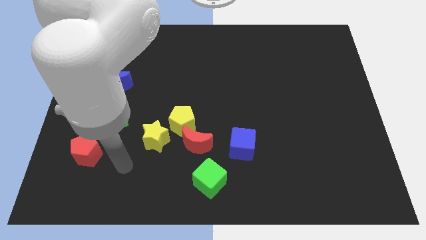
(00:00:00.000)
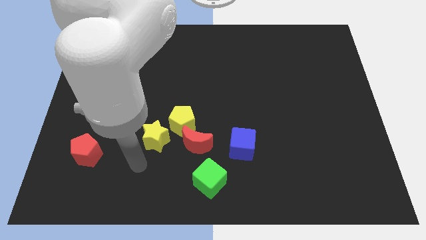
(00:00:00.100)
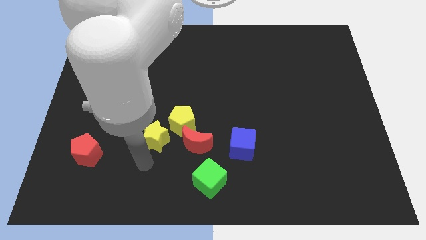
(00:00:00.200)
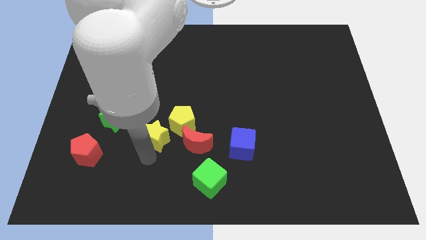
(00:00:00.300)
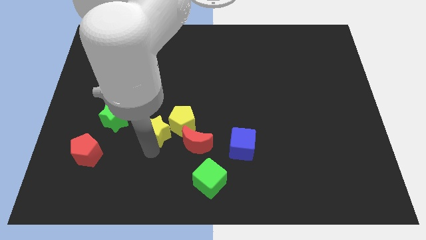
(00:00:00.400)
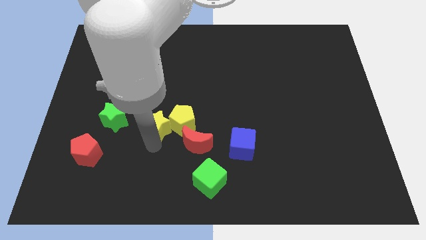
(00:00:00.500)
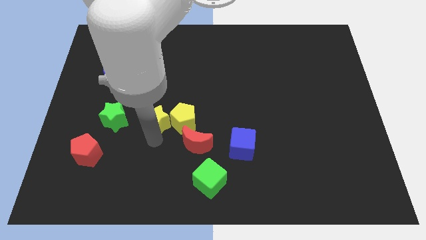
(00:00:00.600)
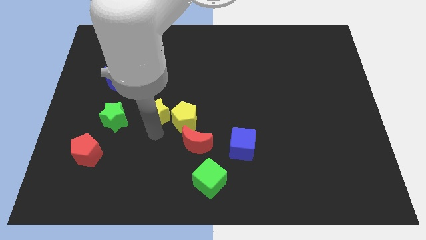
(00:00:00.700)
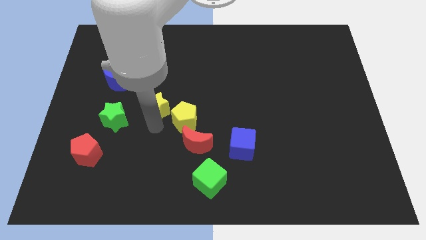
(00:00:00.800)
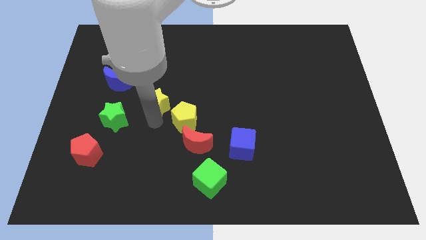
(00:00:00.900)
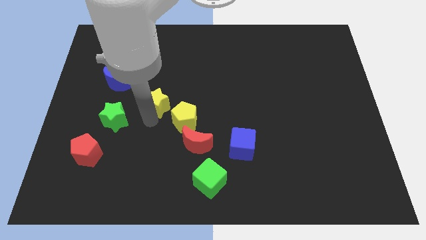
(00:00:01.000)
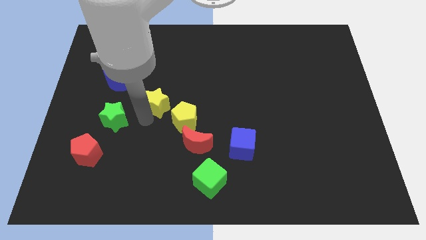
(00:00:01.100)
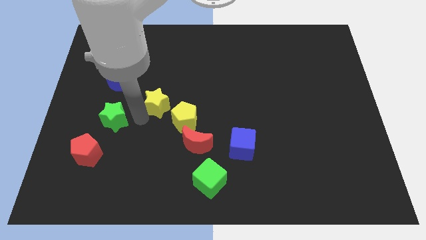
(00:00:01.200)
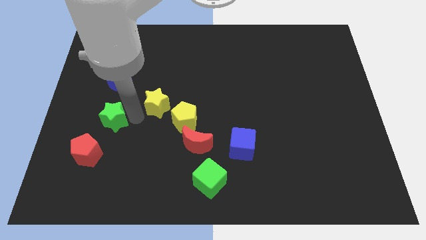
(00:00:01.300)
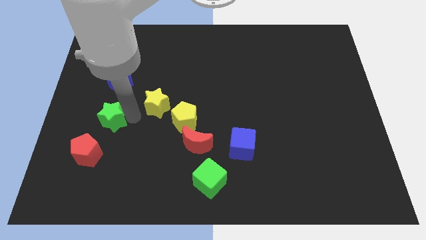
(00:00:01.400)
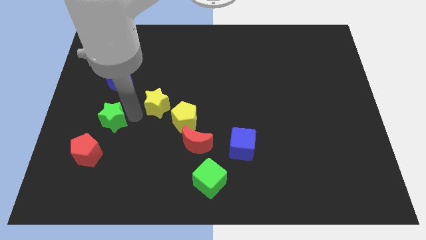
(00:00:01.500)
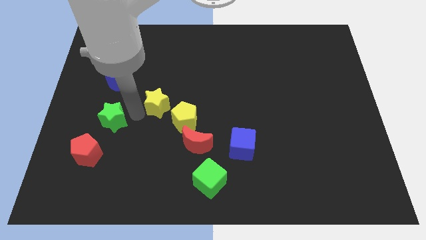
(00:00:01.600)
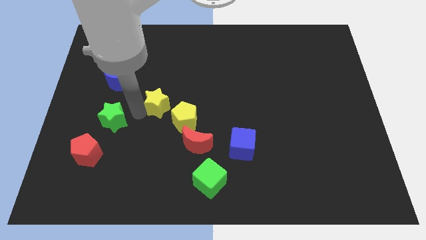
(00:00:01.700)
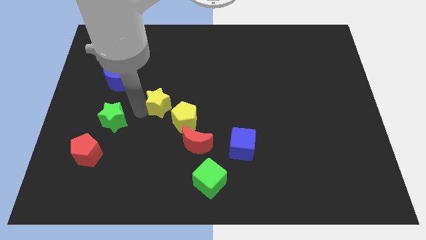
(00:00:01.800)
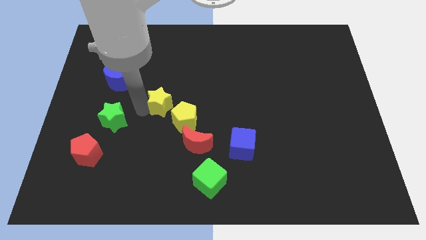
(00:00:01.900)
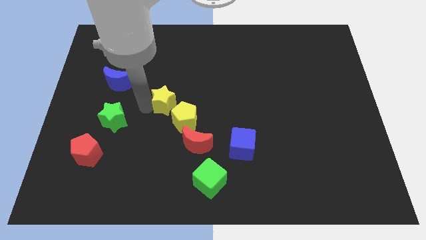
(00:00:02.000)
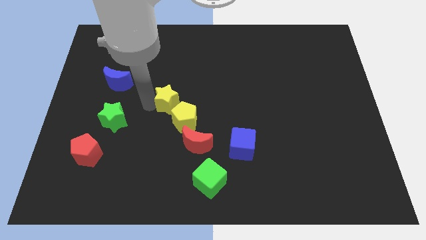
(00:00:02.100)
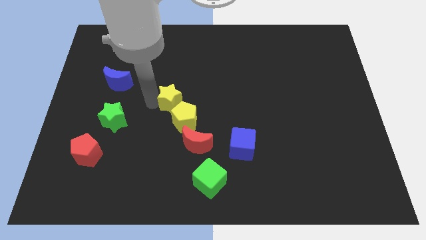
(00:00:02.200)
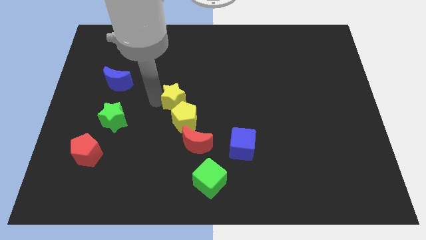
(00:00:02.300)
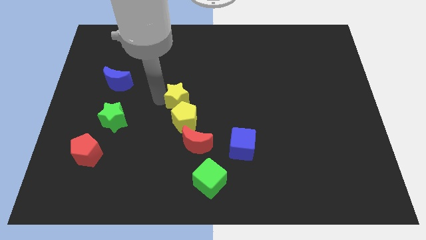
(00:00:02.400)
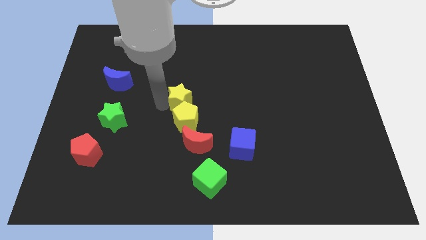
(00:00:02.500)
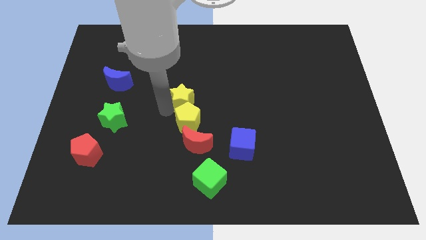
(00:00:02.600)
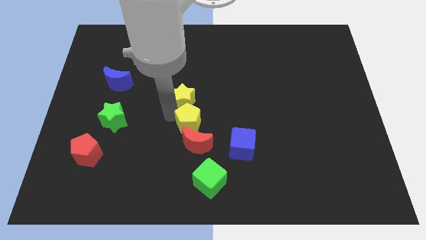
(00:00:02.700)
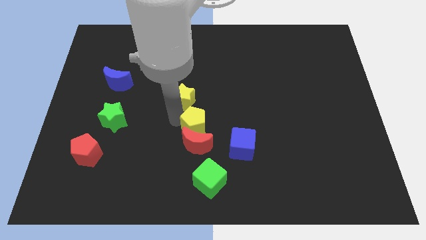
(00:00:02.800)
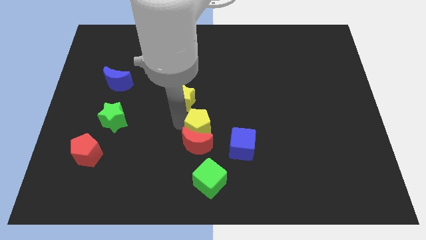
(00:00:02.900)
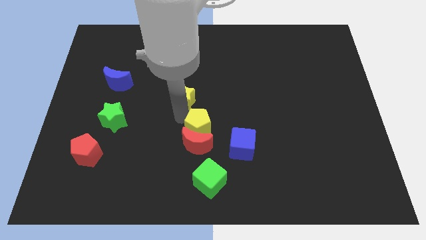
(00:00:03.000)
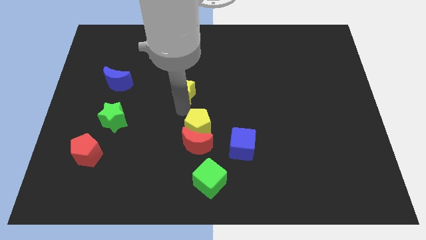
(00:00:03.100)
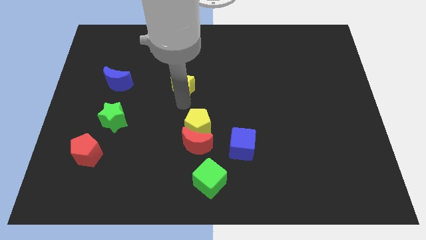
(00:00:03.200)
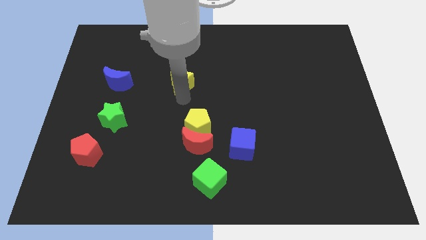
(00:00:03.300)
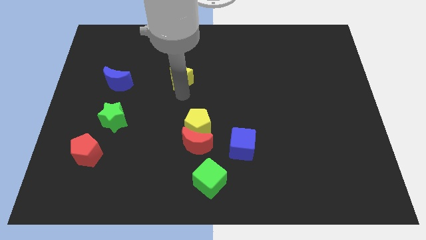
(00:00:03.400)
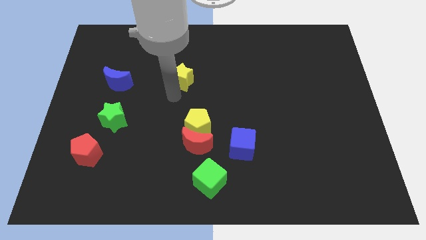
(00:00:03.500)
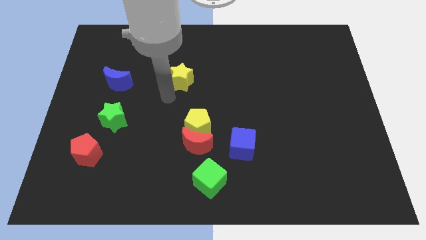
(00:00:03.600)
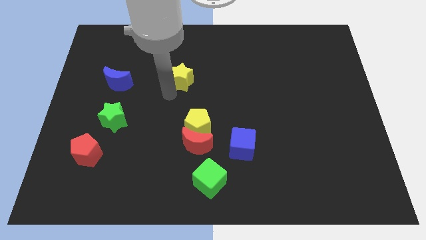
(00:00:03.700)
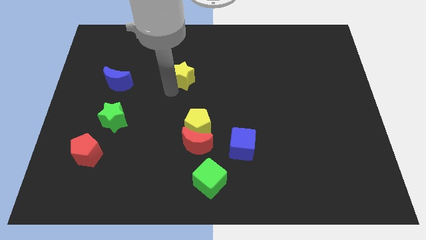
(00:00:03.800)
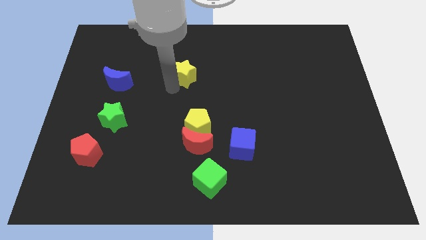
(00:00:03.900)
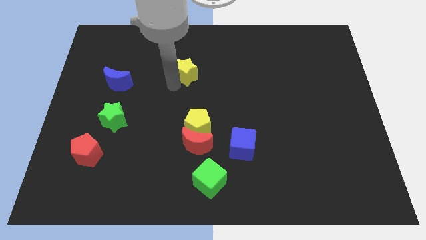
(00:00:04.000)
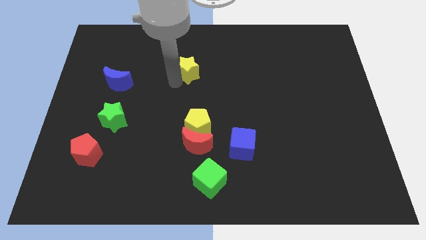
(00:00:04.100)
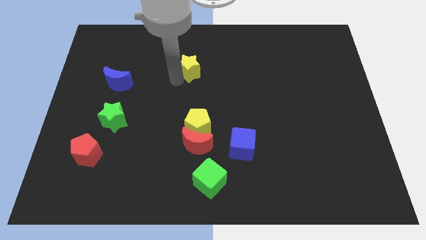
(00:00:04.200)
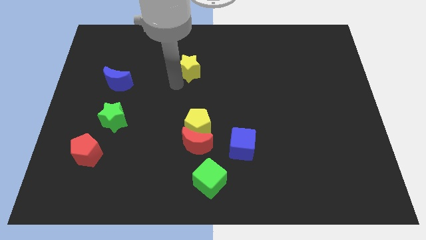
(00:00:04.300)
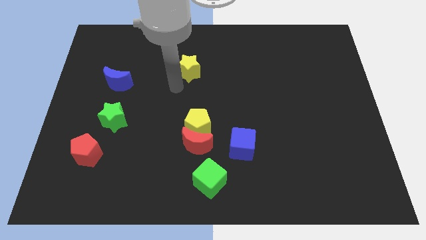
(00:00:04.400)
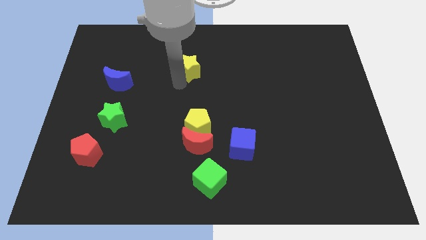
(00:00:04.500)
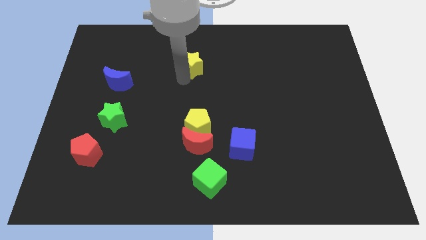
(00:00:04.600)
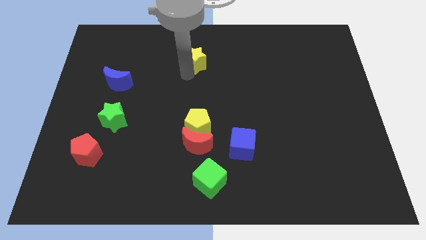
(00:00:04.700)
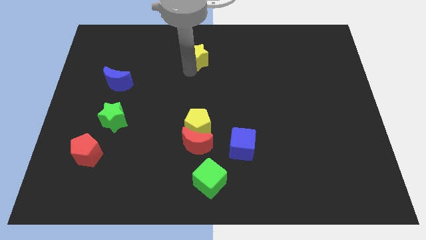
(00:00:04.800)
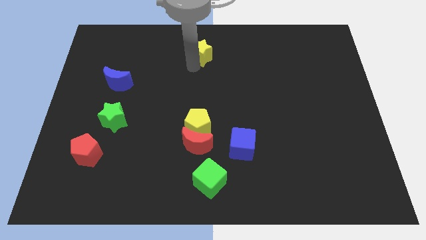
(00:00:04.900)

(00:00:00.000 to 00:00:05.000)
move the yellow star to the top

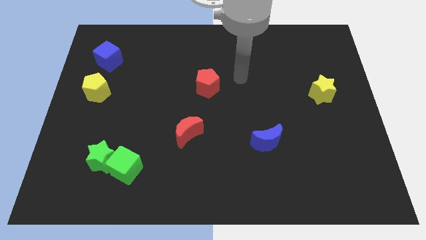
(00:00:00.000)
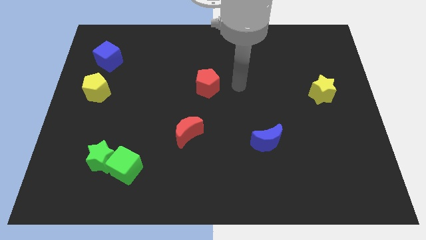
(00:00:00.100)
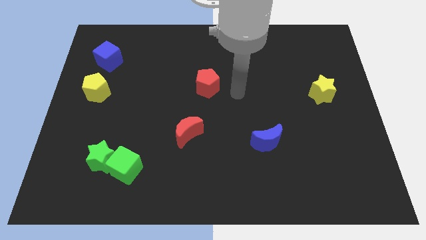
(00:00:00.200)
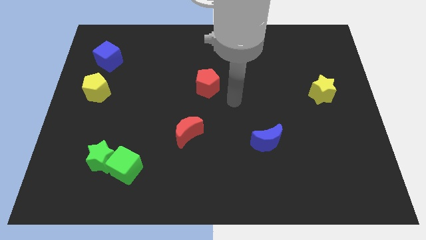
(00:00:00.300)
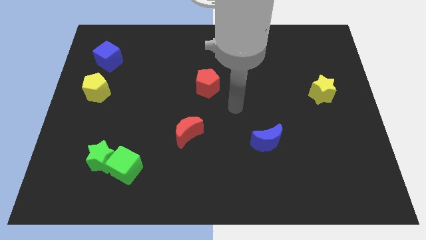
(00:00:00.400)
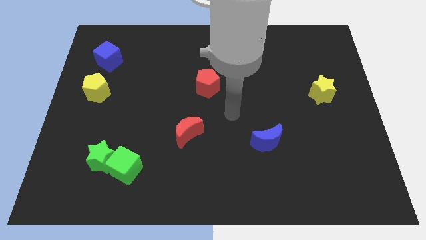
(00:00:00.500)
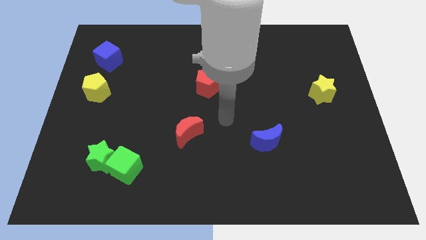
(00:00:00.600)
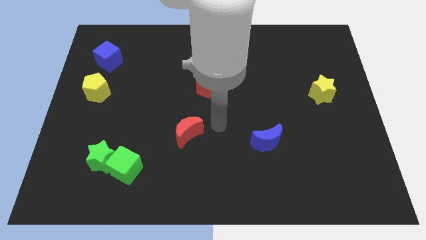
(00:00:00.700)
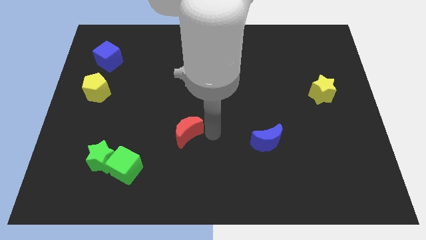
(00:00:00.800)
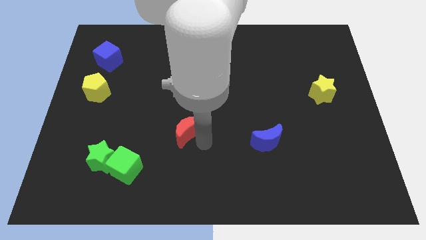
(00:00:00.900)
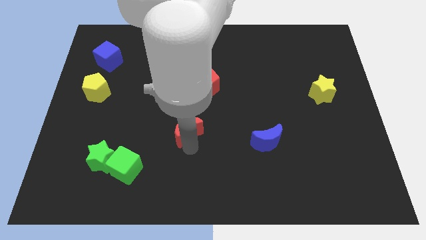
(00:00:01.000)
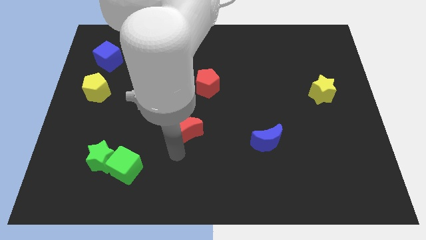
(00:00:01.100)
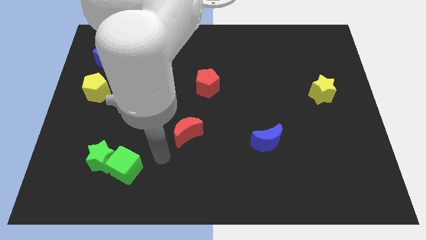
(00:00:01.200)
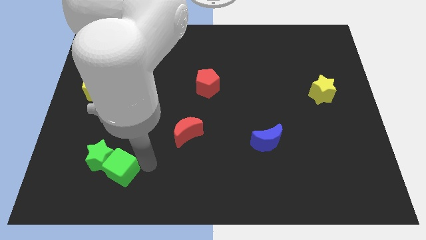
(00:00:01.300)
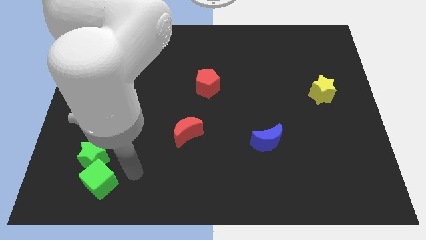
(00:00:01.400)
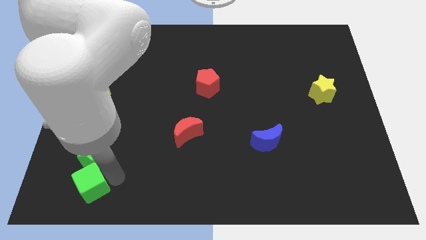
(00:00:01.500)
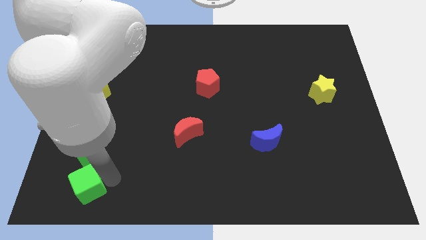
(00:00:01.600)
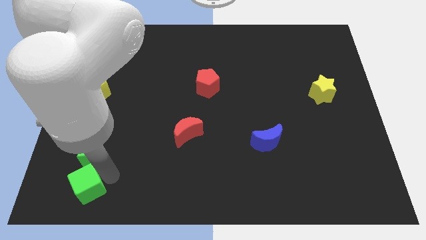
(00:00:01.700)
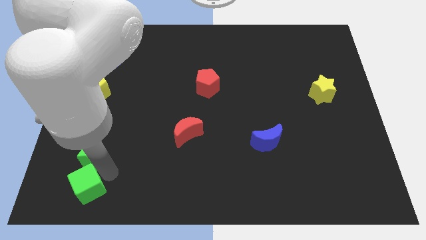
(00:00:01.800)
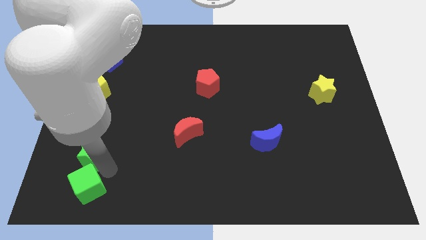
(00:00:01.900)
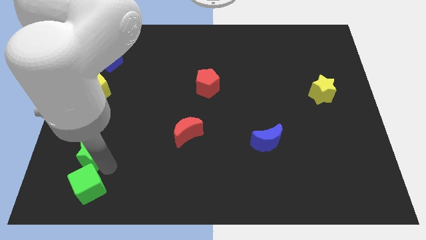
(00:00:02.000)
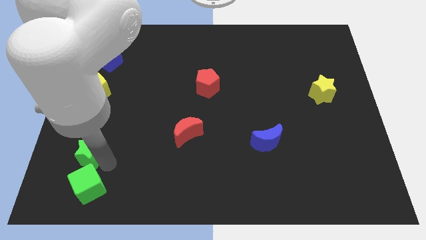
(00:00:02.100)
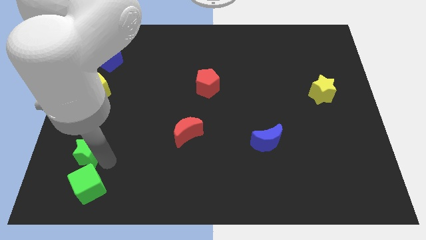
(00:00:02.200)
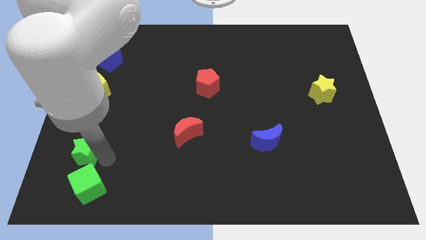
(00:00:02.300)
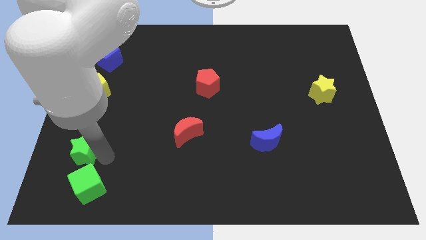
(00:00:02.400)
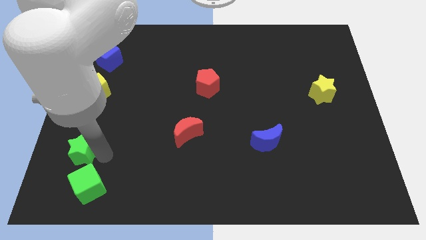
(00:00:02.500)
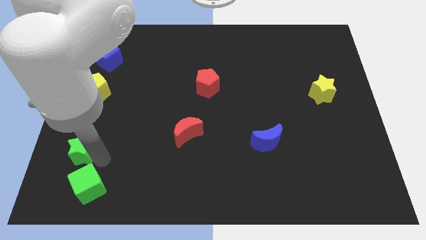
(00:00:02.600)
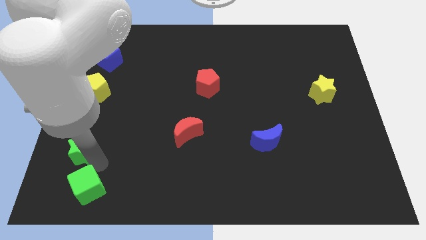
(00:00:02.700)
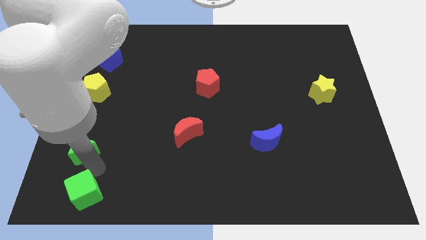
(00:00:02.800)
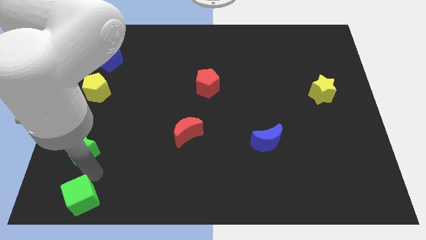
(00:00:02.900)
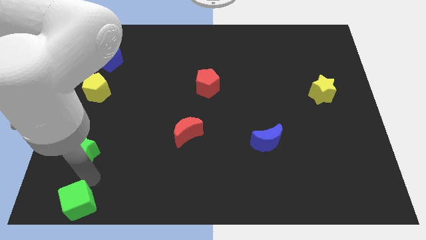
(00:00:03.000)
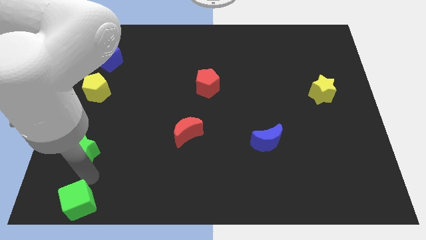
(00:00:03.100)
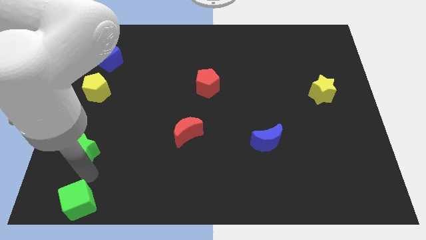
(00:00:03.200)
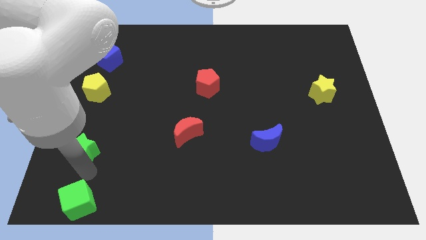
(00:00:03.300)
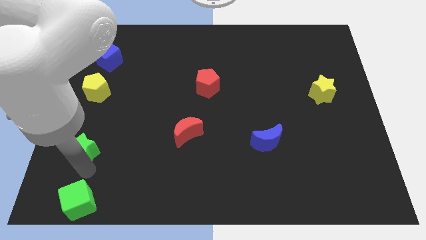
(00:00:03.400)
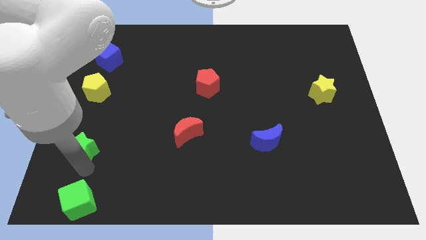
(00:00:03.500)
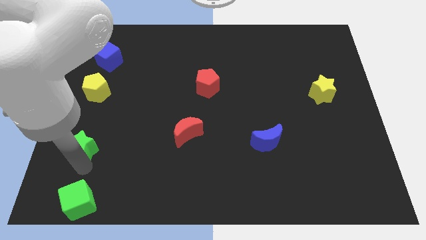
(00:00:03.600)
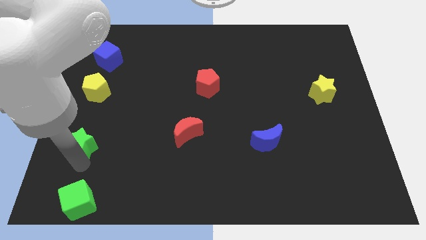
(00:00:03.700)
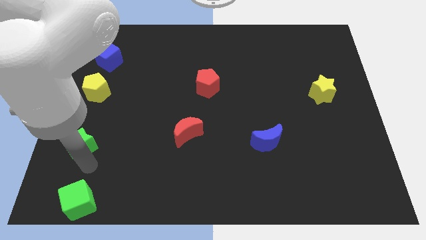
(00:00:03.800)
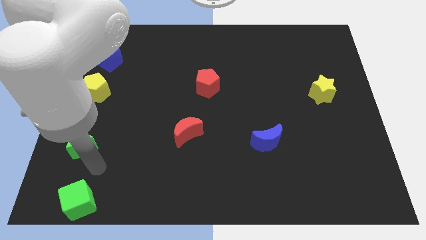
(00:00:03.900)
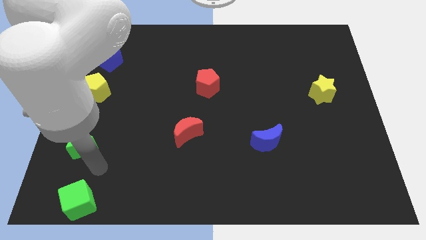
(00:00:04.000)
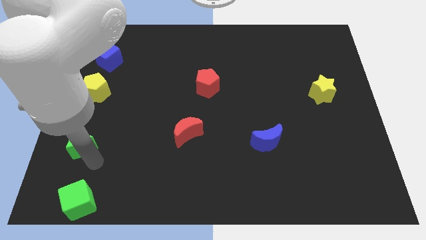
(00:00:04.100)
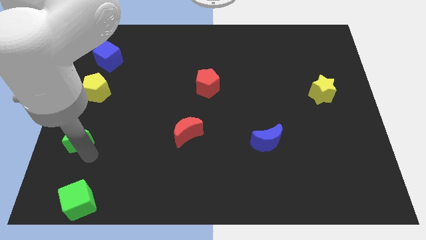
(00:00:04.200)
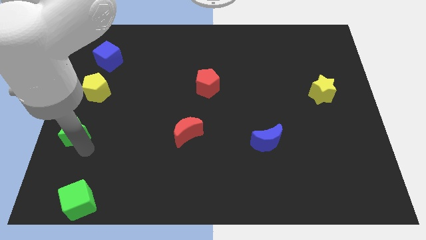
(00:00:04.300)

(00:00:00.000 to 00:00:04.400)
move the green star to the left side
